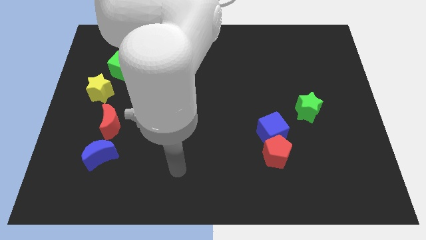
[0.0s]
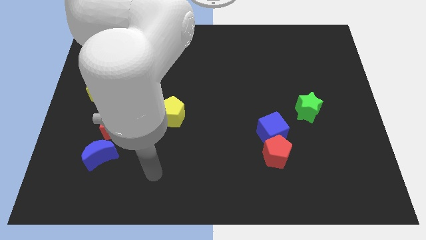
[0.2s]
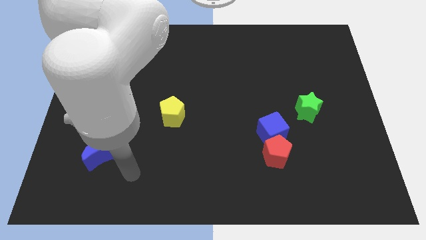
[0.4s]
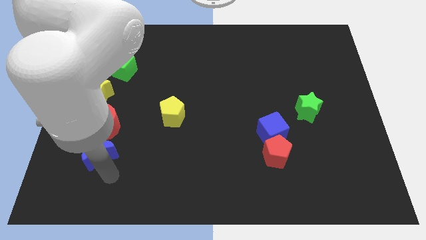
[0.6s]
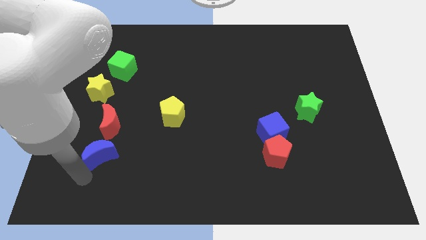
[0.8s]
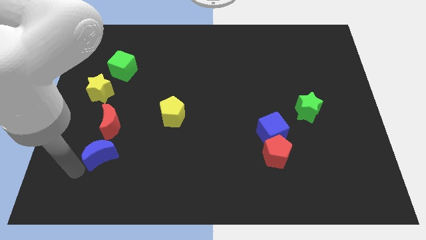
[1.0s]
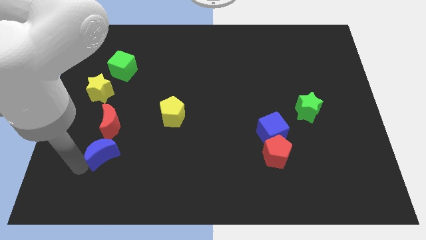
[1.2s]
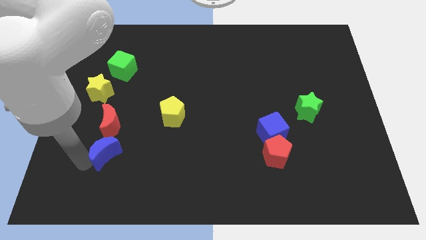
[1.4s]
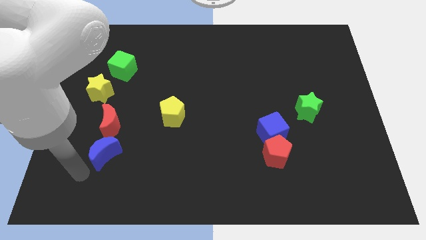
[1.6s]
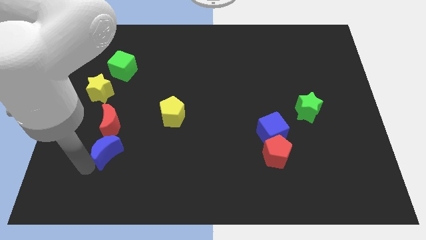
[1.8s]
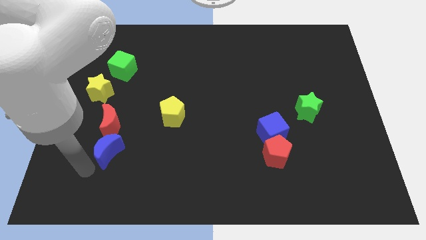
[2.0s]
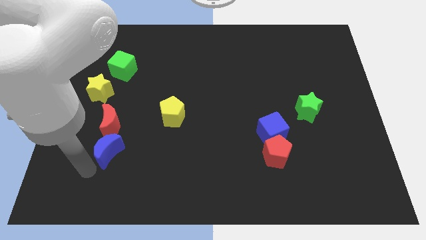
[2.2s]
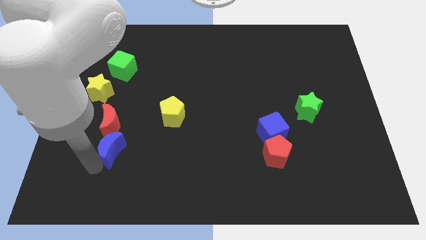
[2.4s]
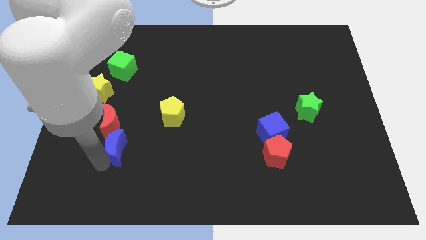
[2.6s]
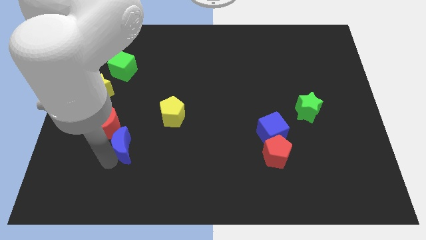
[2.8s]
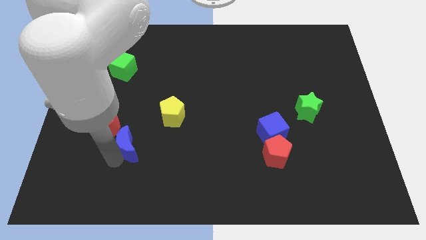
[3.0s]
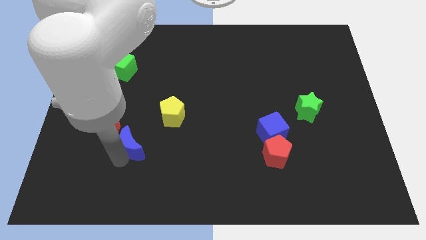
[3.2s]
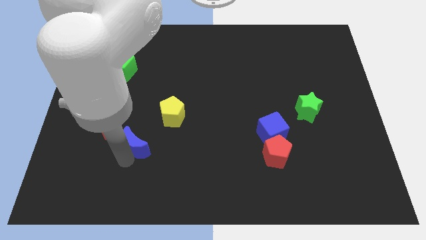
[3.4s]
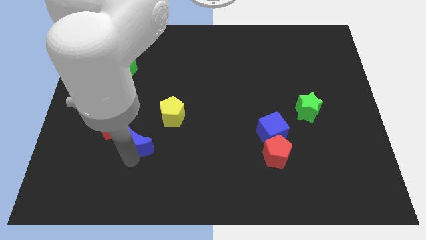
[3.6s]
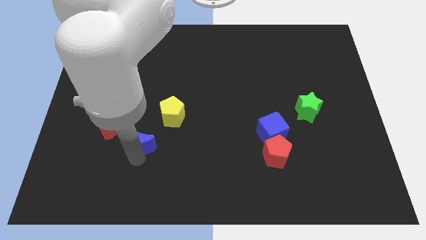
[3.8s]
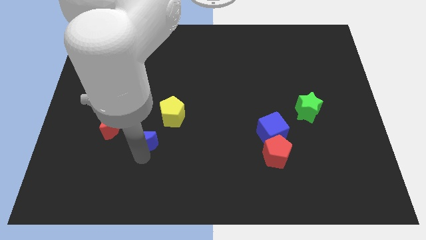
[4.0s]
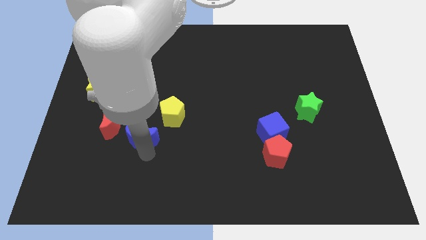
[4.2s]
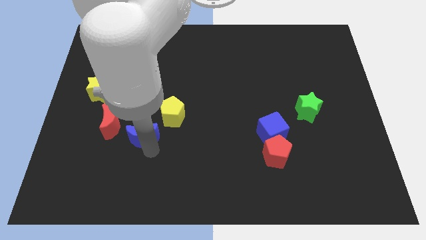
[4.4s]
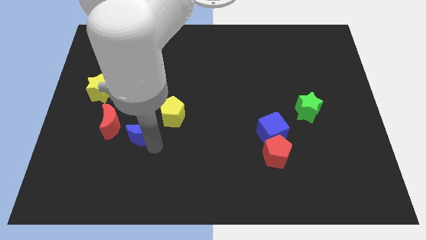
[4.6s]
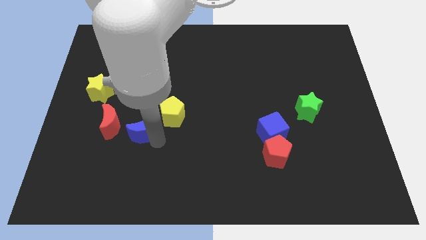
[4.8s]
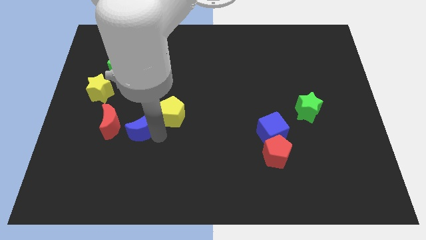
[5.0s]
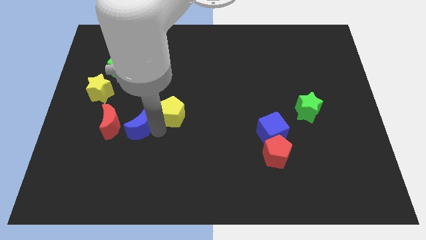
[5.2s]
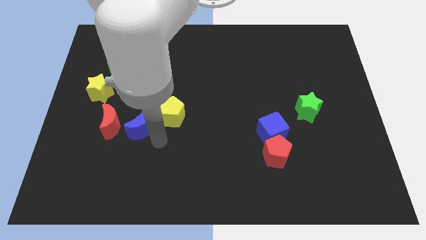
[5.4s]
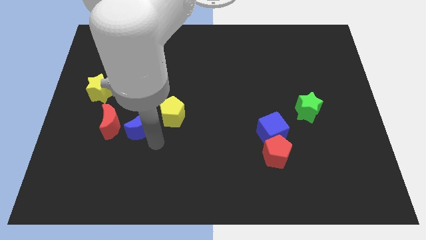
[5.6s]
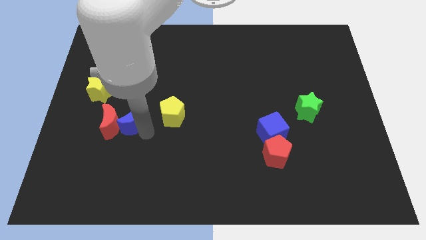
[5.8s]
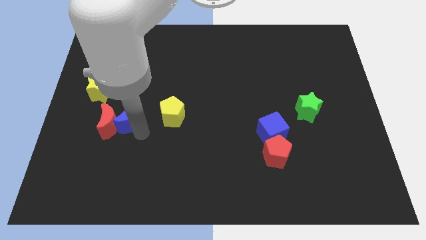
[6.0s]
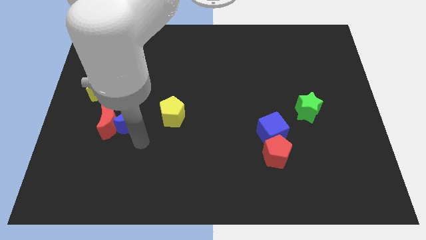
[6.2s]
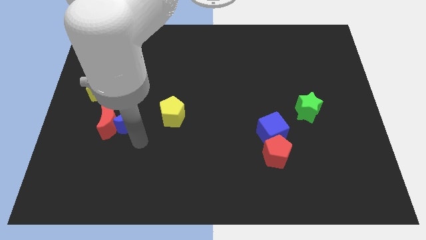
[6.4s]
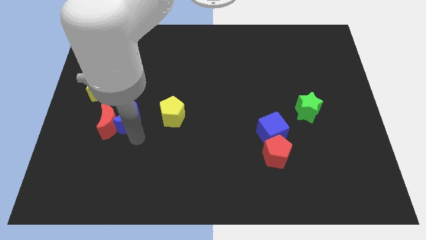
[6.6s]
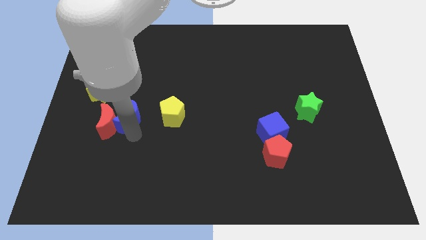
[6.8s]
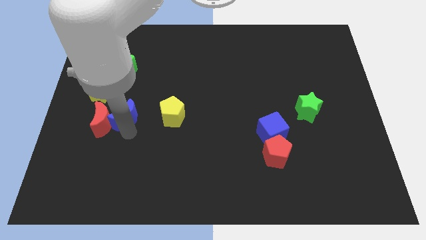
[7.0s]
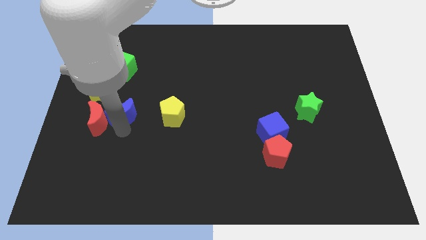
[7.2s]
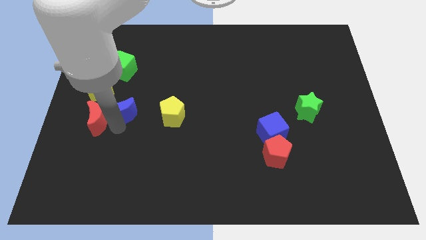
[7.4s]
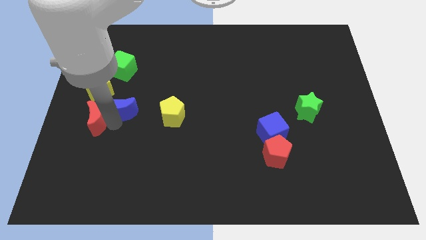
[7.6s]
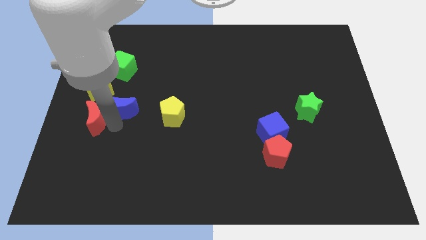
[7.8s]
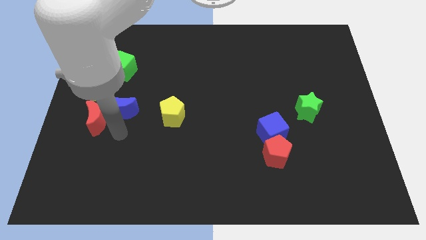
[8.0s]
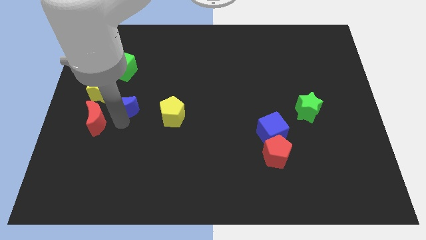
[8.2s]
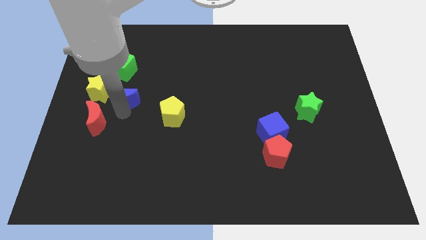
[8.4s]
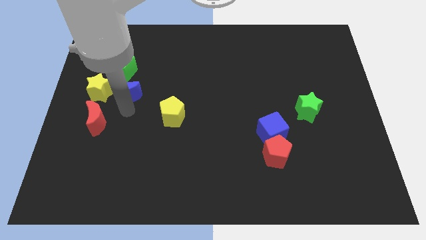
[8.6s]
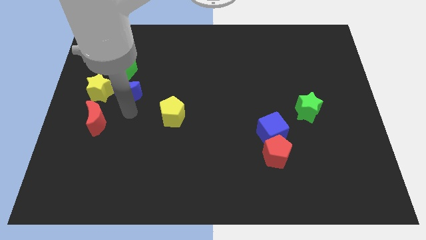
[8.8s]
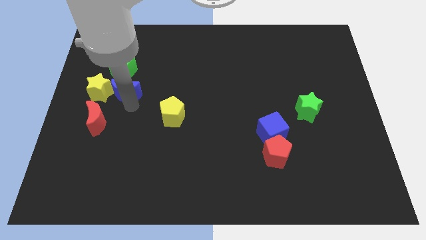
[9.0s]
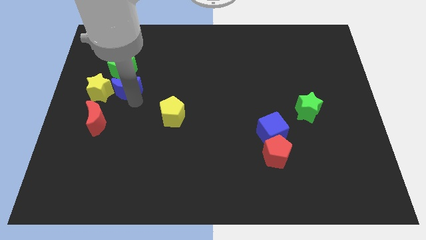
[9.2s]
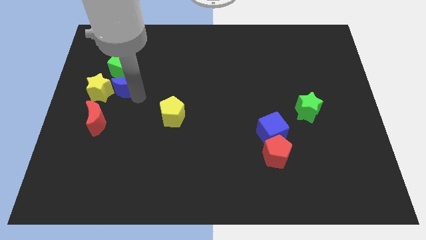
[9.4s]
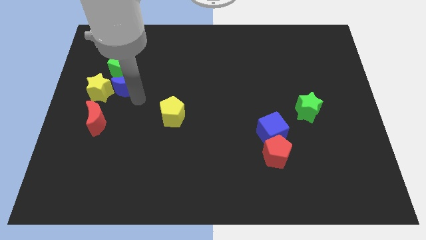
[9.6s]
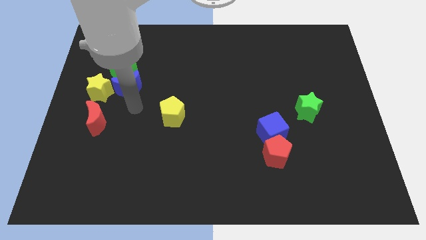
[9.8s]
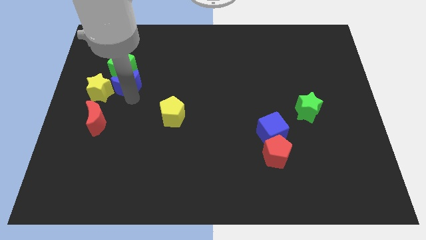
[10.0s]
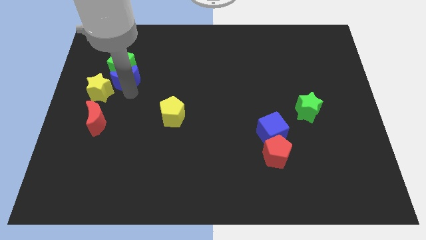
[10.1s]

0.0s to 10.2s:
move the blue moon close to the green cube

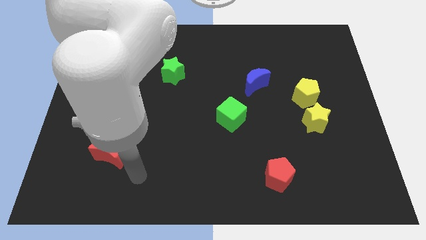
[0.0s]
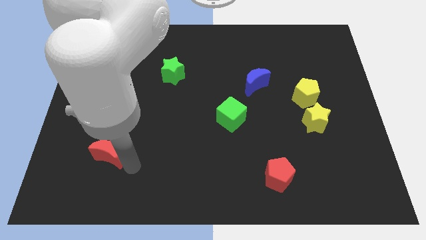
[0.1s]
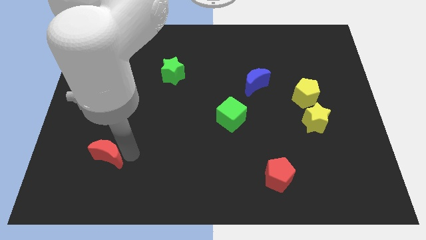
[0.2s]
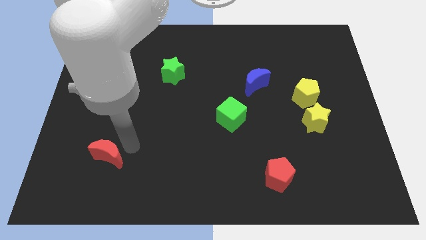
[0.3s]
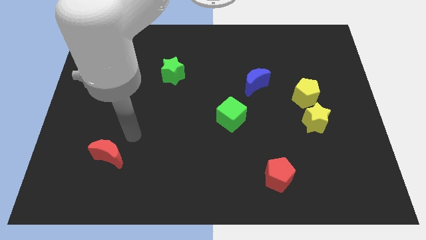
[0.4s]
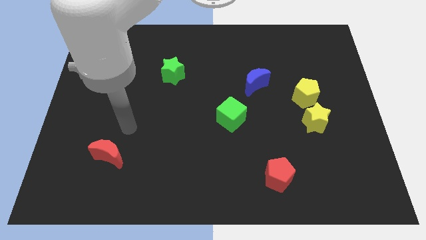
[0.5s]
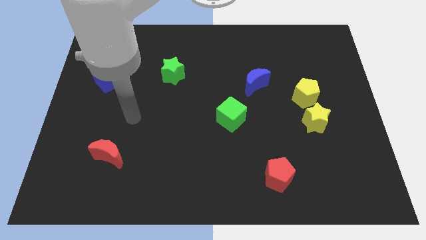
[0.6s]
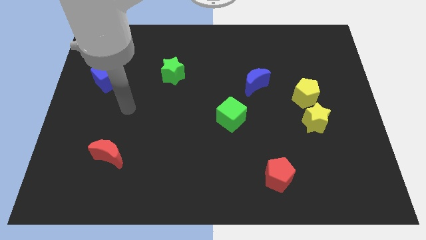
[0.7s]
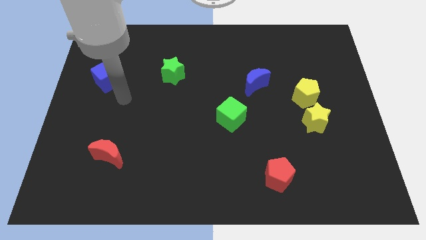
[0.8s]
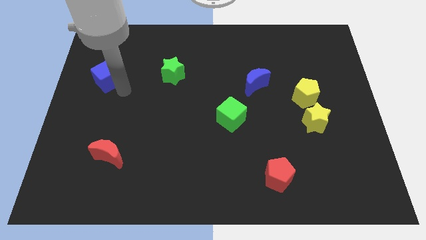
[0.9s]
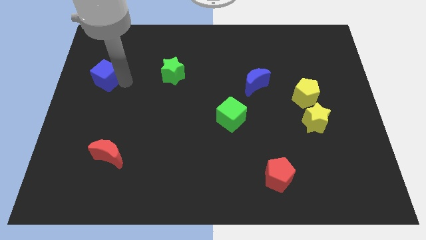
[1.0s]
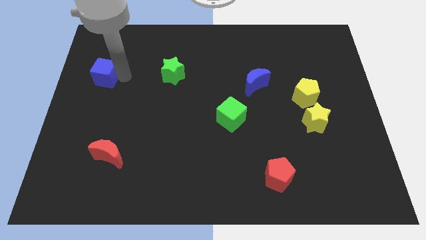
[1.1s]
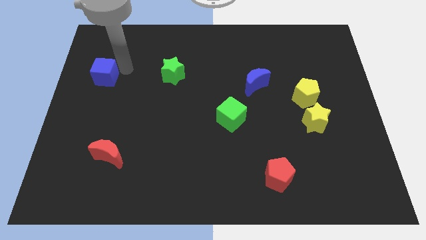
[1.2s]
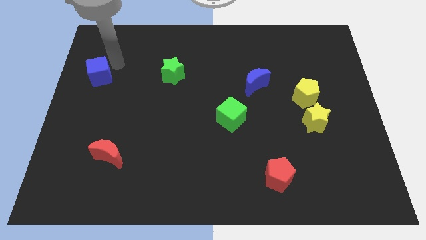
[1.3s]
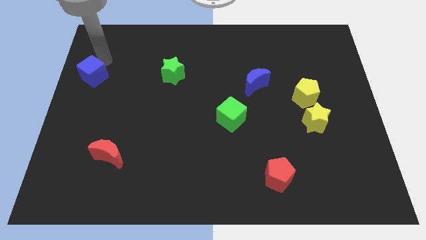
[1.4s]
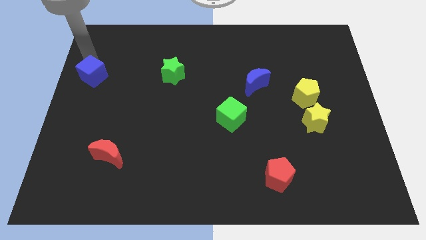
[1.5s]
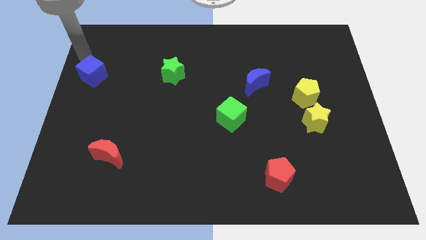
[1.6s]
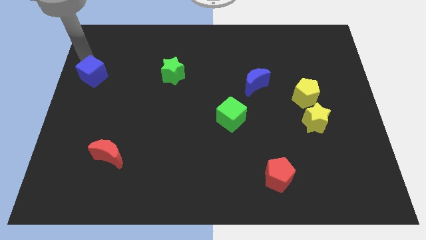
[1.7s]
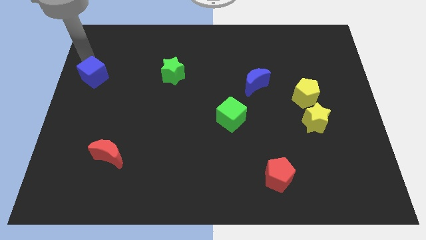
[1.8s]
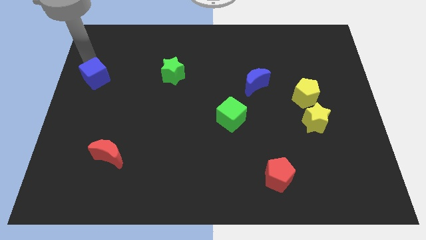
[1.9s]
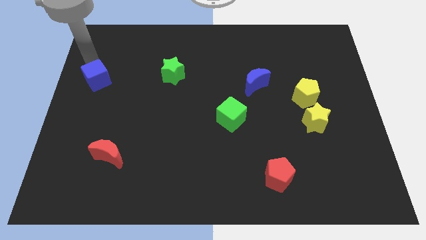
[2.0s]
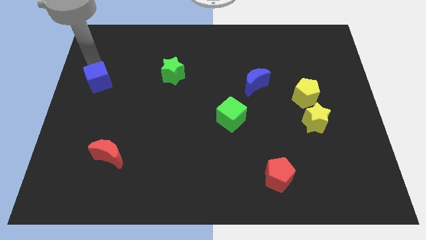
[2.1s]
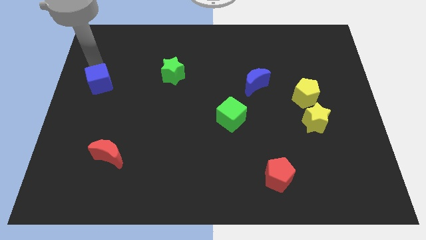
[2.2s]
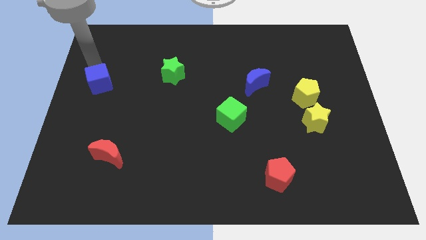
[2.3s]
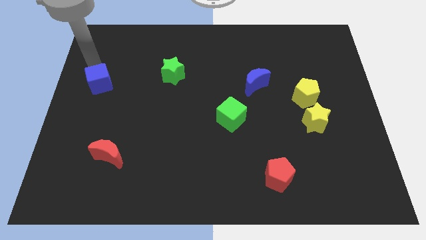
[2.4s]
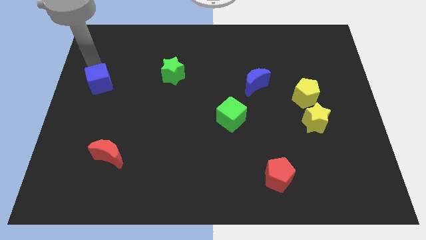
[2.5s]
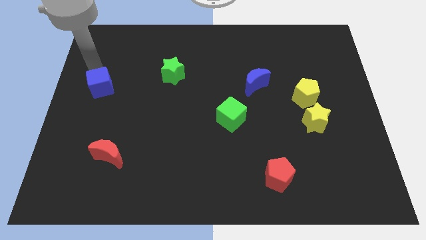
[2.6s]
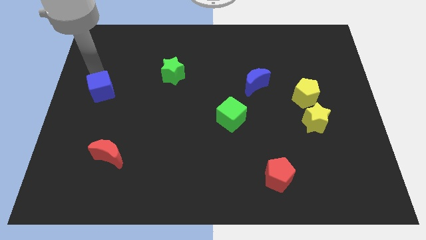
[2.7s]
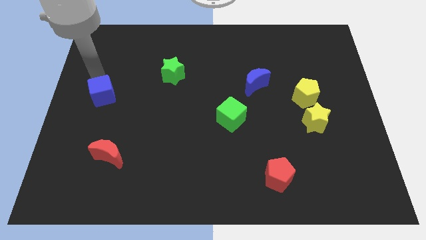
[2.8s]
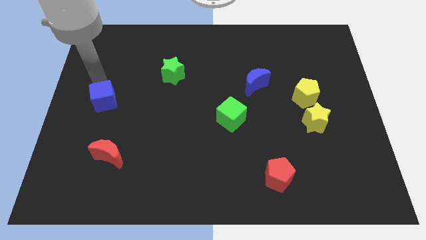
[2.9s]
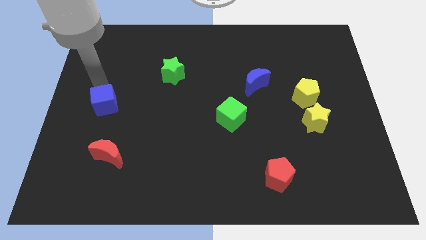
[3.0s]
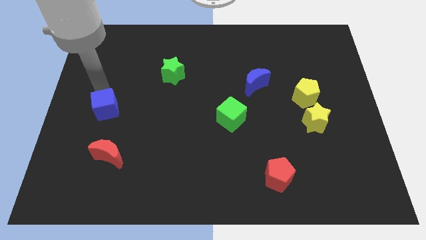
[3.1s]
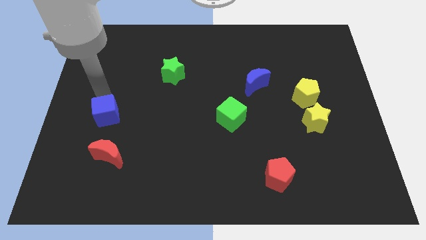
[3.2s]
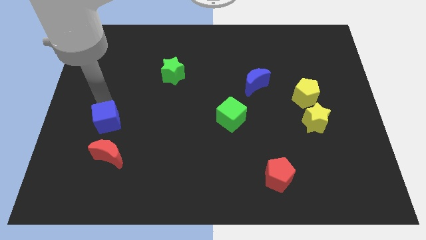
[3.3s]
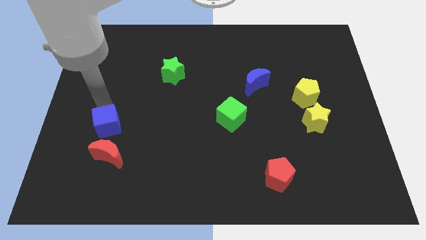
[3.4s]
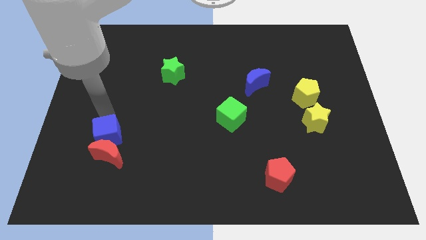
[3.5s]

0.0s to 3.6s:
slide the blue cube next to the red moon
